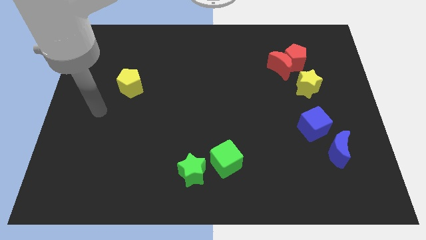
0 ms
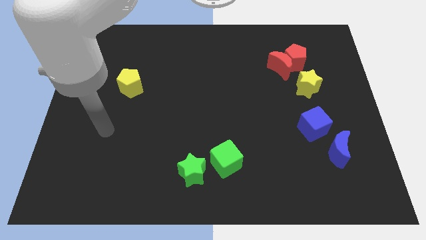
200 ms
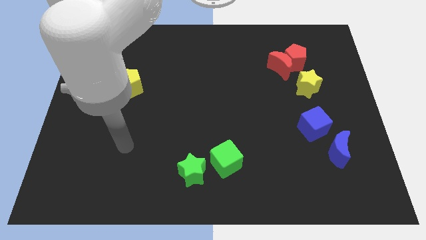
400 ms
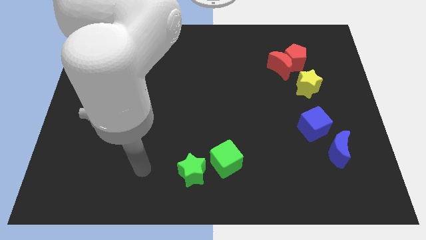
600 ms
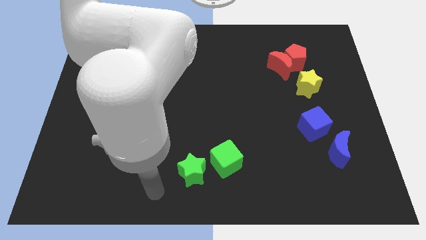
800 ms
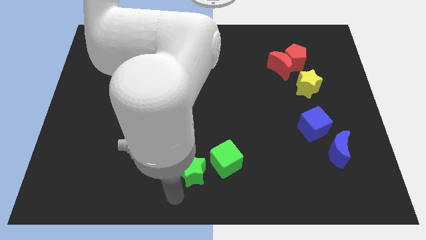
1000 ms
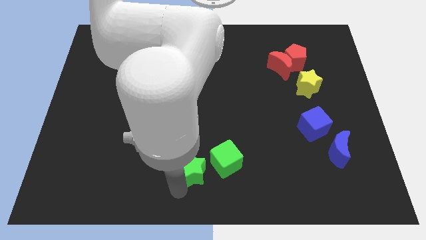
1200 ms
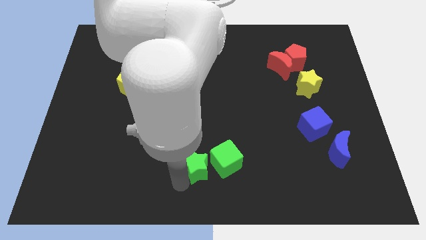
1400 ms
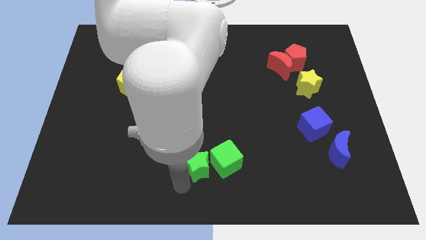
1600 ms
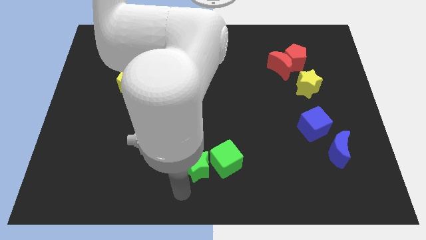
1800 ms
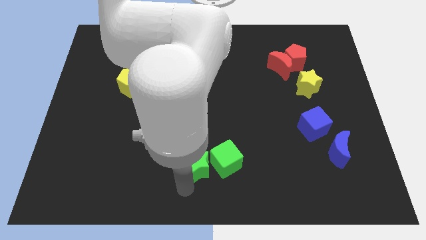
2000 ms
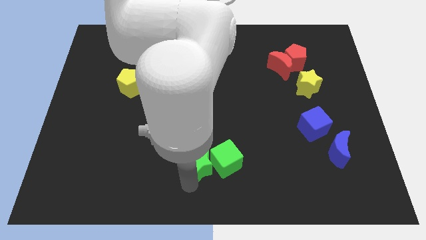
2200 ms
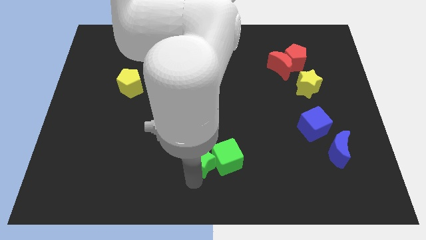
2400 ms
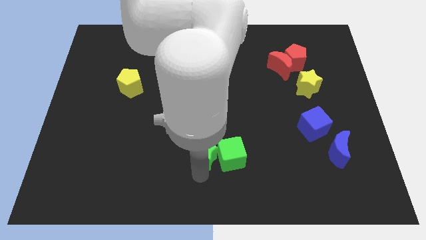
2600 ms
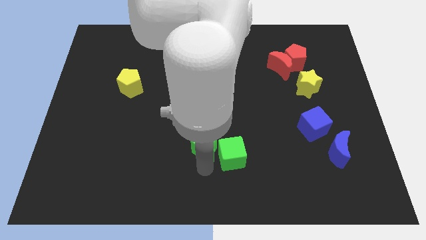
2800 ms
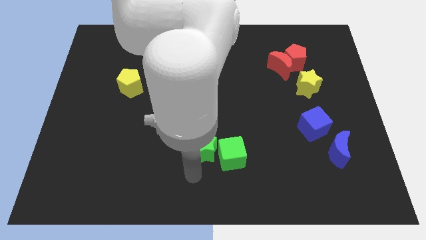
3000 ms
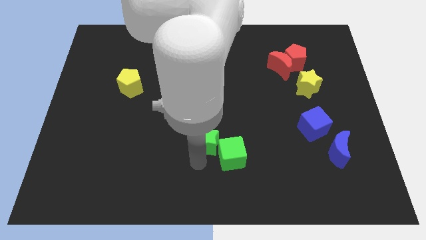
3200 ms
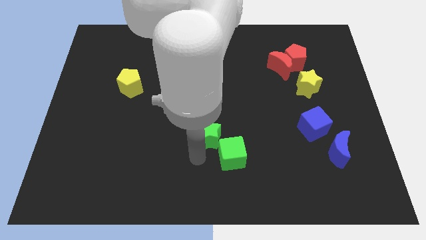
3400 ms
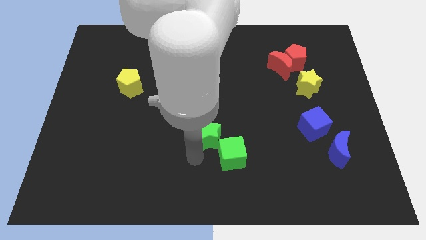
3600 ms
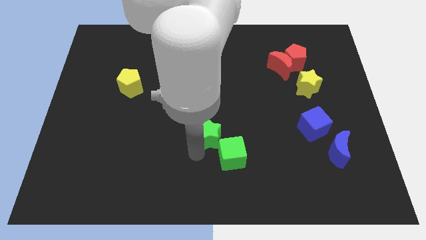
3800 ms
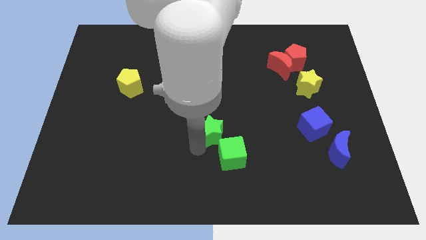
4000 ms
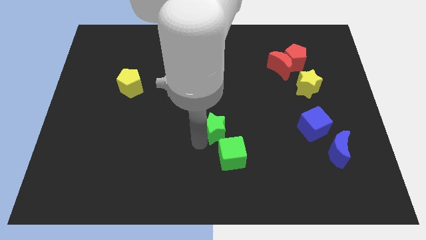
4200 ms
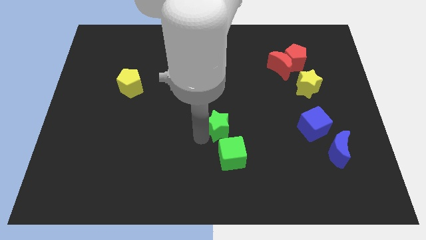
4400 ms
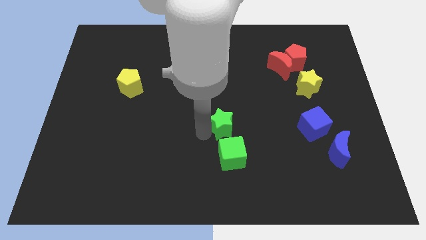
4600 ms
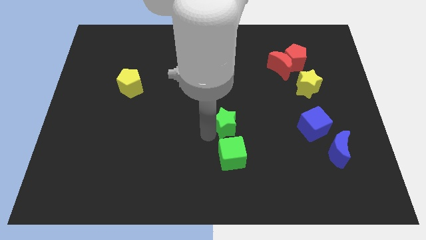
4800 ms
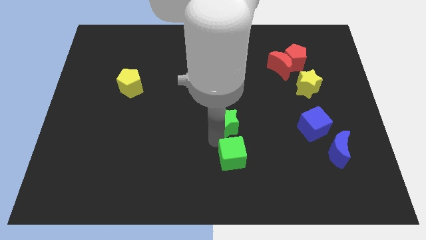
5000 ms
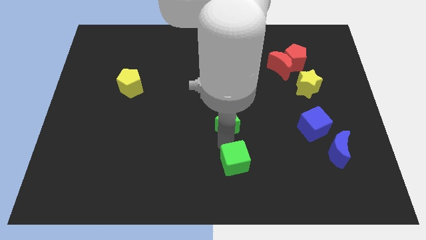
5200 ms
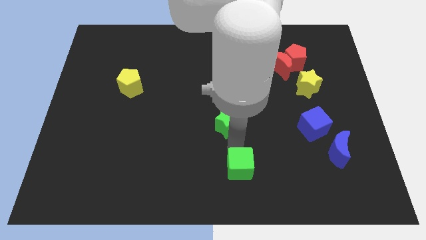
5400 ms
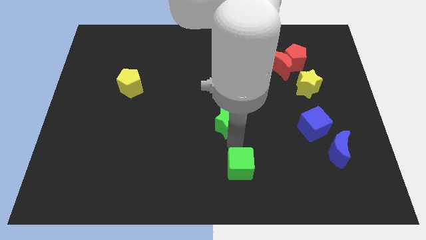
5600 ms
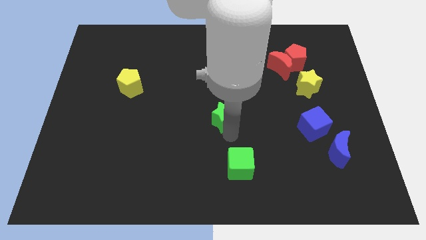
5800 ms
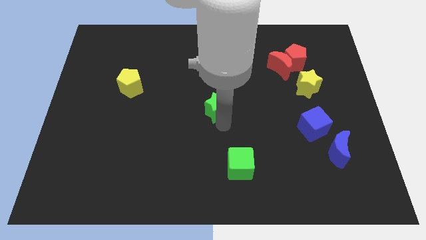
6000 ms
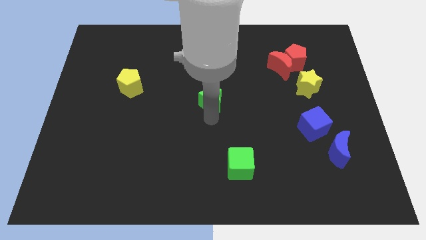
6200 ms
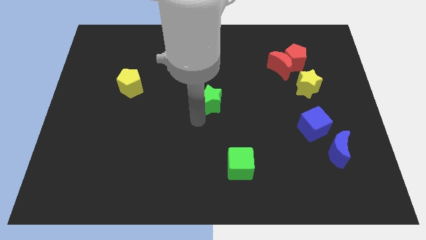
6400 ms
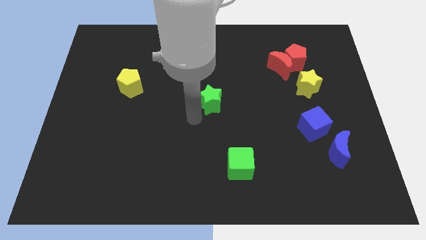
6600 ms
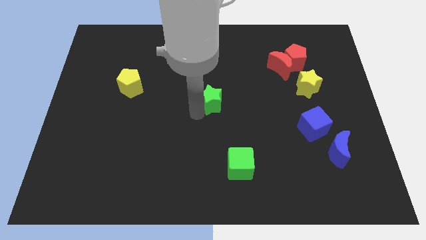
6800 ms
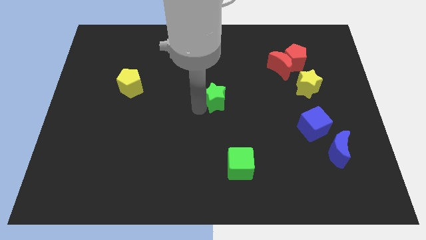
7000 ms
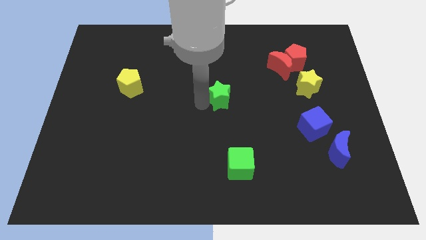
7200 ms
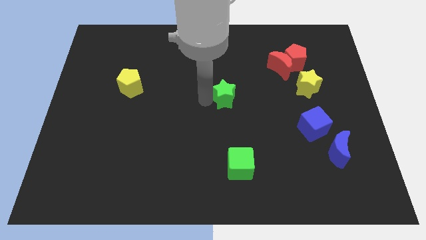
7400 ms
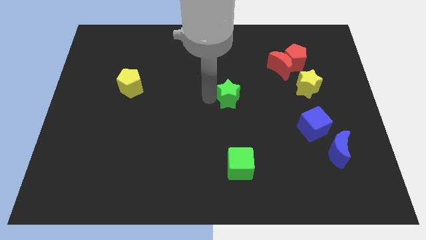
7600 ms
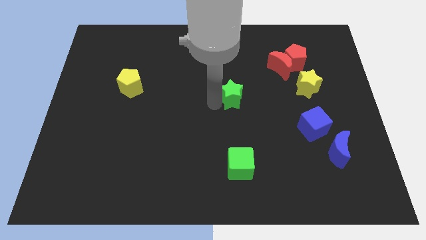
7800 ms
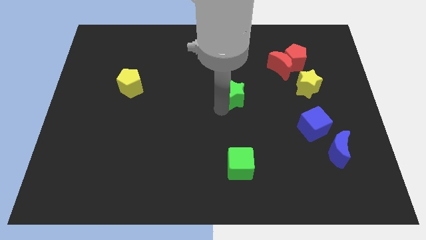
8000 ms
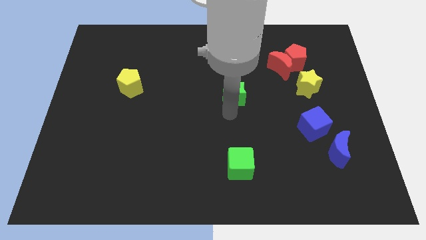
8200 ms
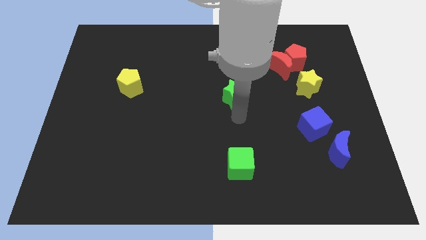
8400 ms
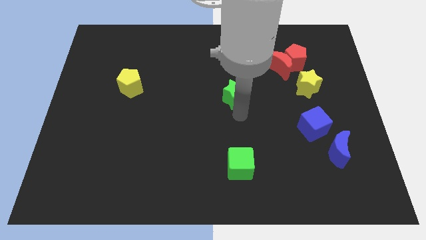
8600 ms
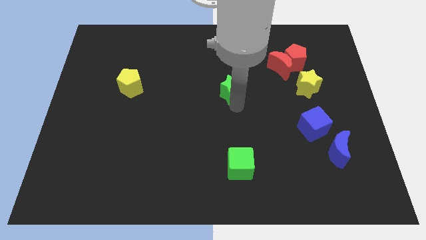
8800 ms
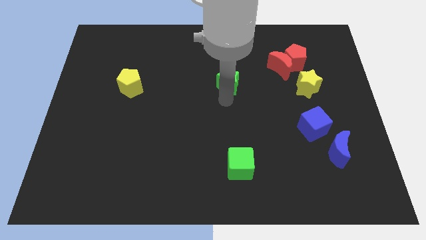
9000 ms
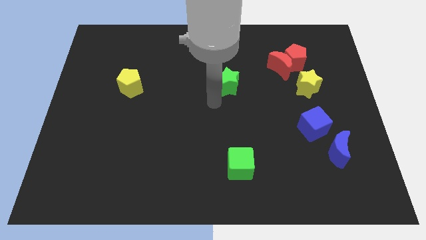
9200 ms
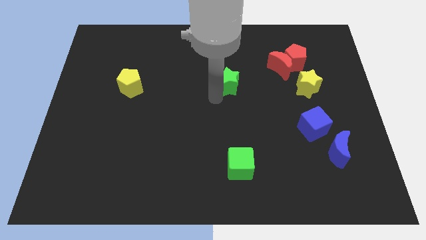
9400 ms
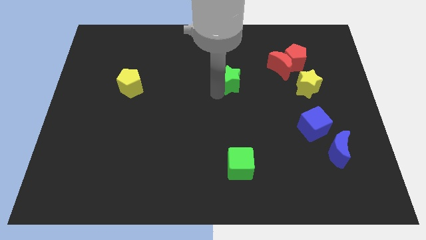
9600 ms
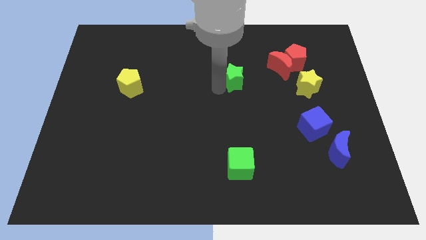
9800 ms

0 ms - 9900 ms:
move the green star left of the red moon

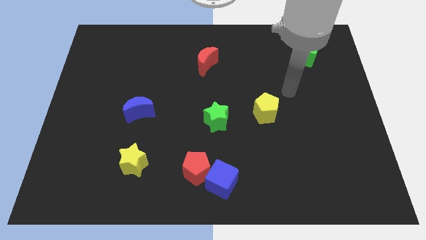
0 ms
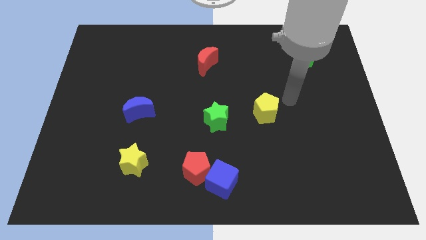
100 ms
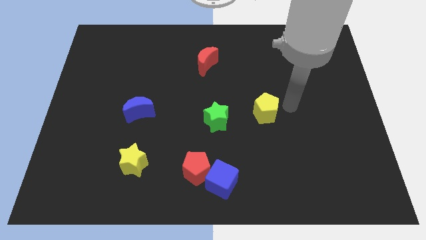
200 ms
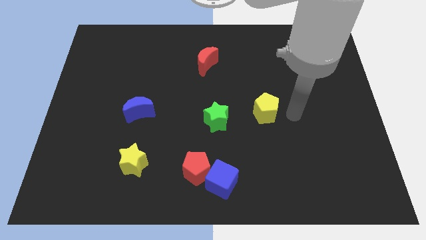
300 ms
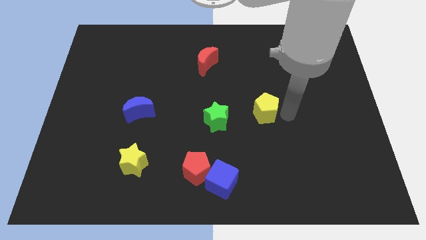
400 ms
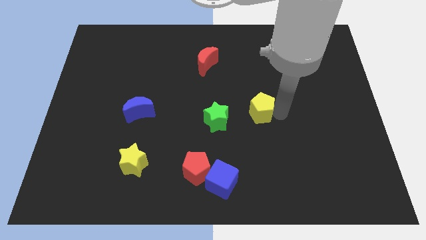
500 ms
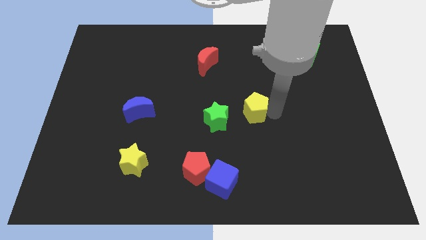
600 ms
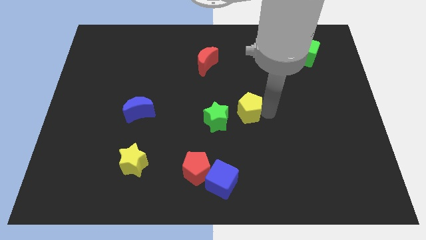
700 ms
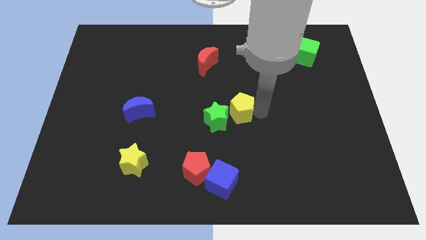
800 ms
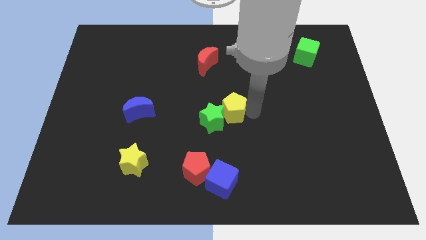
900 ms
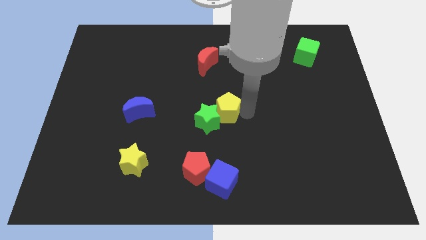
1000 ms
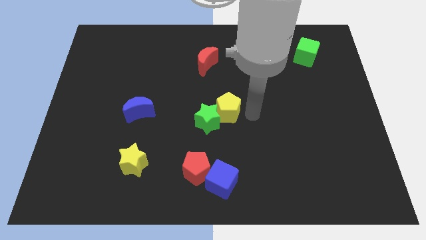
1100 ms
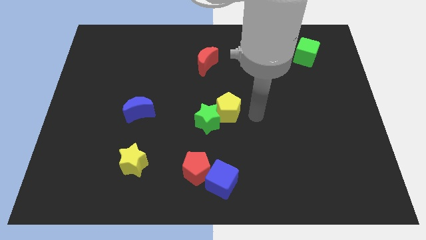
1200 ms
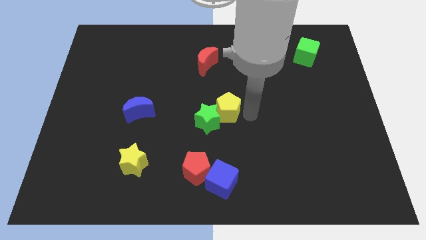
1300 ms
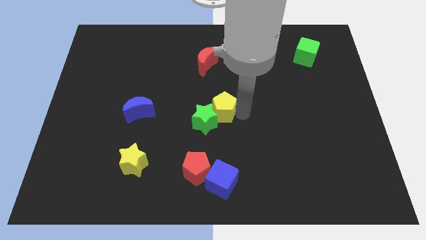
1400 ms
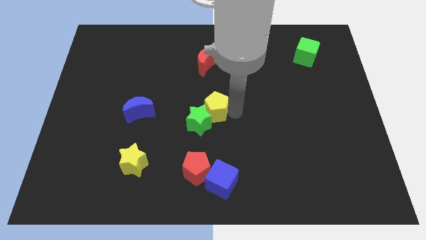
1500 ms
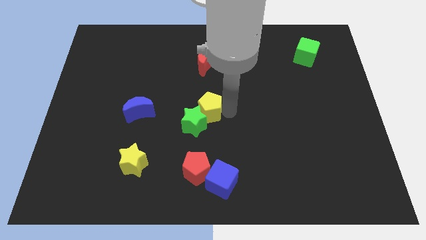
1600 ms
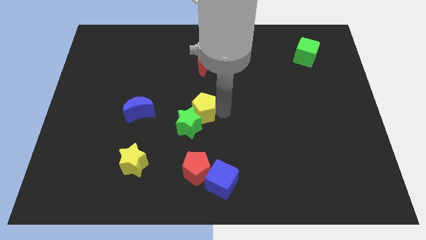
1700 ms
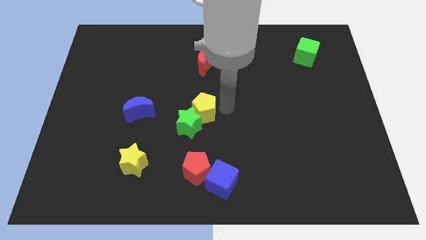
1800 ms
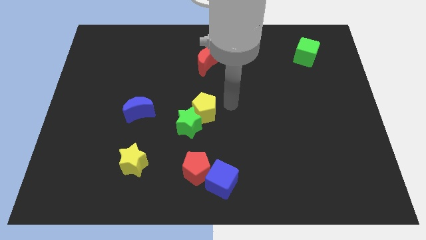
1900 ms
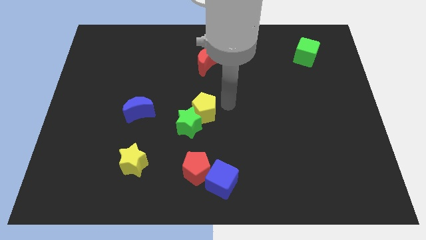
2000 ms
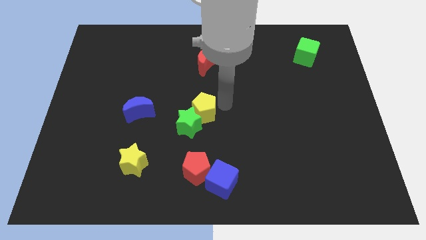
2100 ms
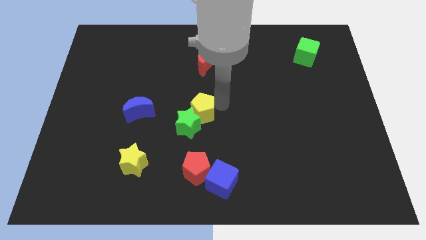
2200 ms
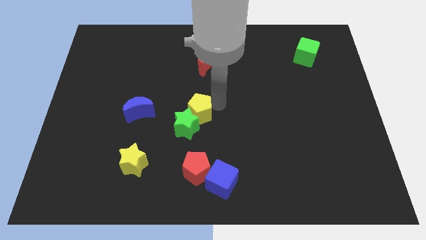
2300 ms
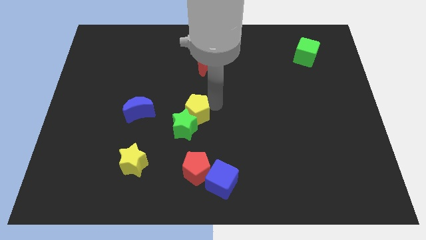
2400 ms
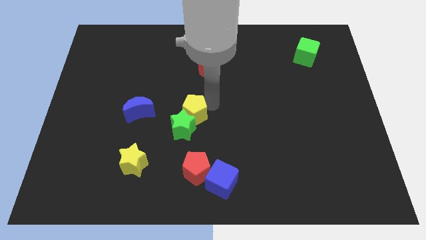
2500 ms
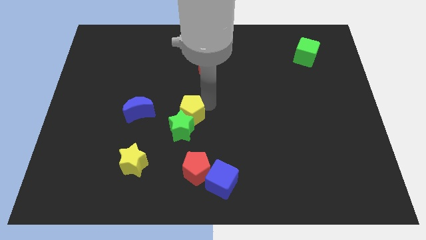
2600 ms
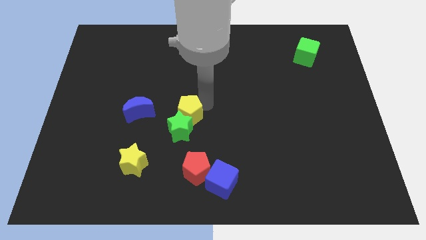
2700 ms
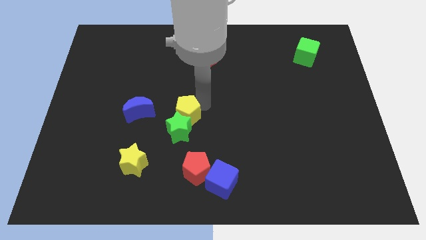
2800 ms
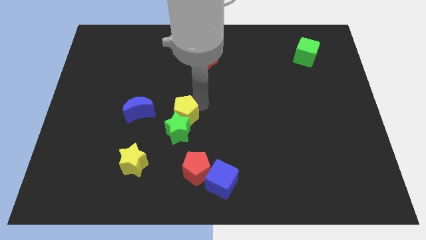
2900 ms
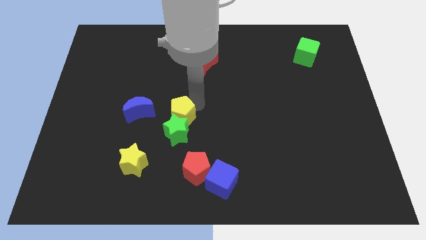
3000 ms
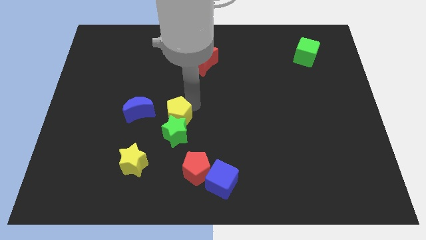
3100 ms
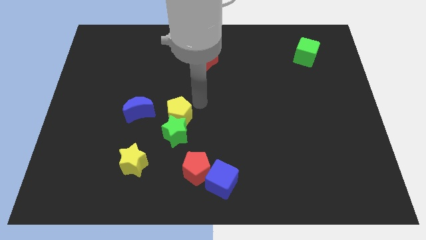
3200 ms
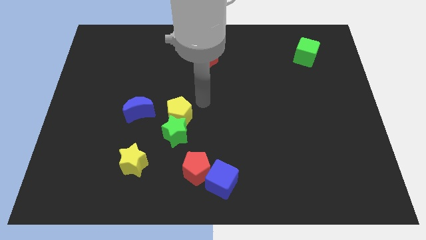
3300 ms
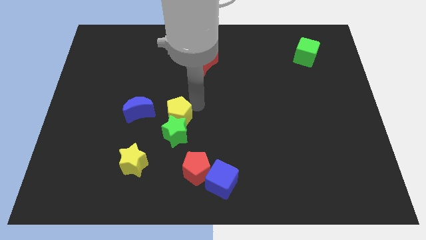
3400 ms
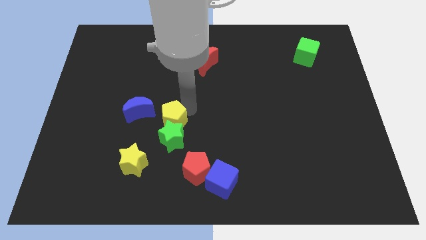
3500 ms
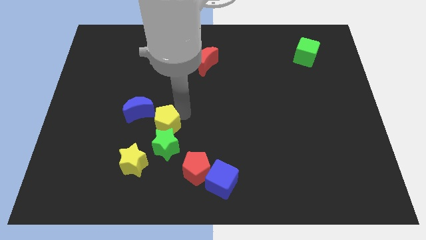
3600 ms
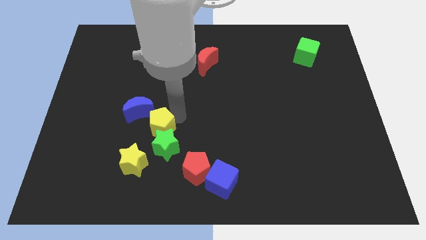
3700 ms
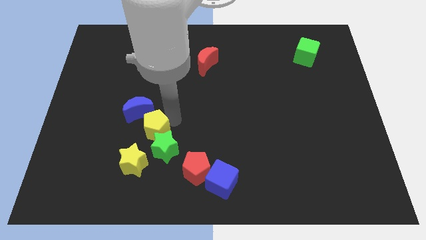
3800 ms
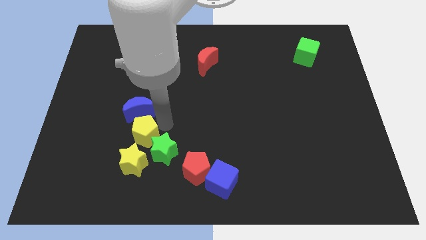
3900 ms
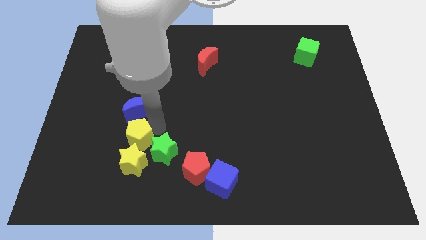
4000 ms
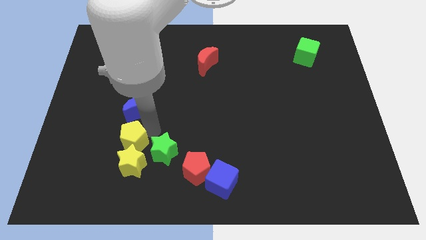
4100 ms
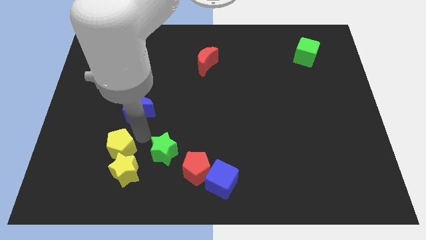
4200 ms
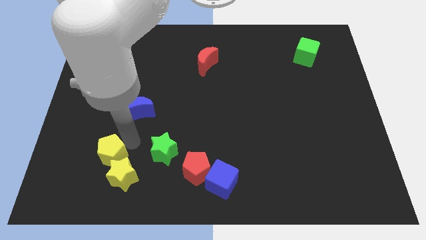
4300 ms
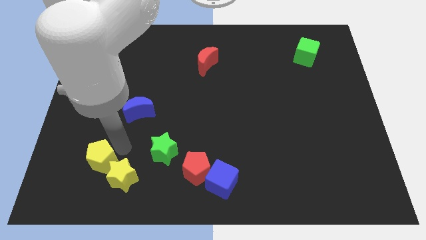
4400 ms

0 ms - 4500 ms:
move the yellow pentagon left of the yellow star
